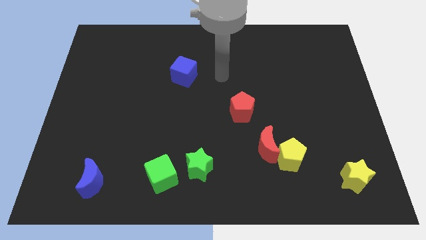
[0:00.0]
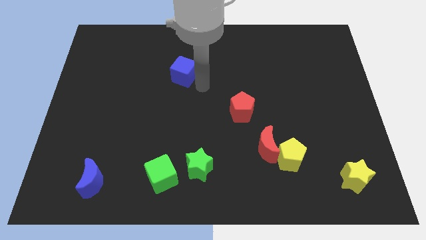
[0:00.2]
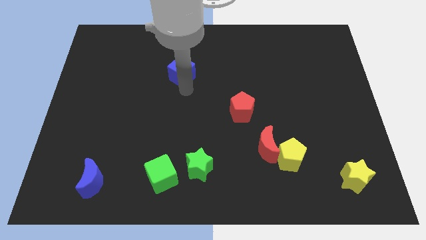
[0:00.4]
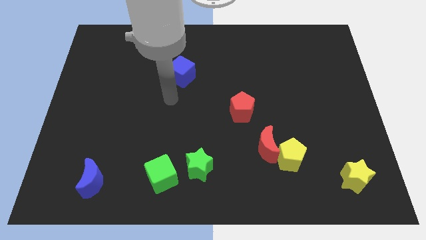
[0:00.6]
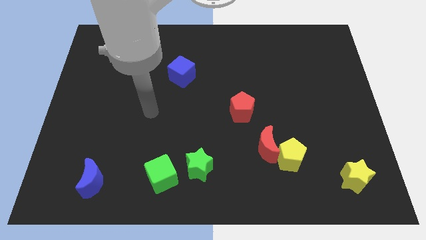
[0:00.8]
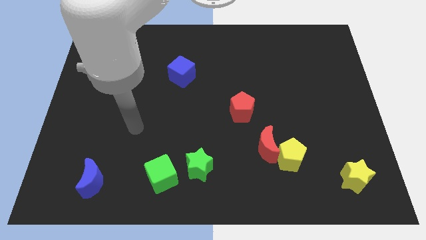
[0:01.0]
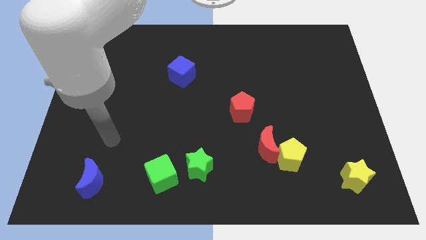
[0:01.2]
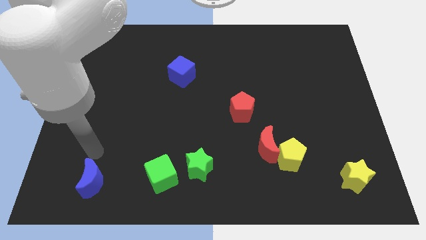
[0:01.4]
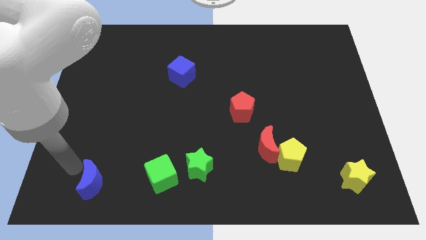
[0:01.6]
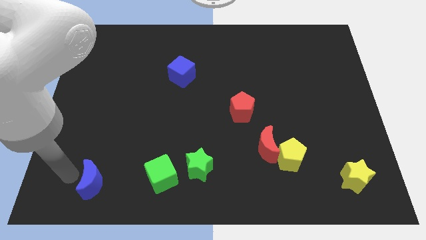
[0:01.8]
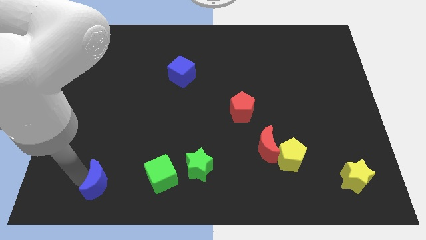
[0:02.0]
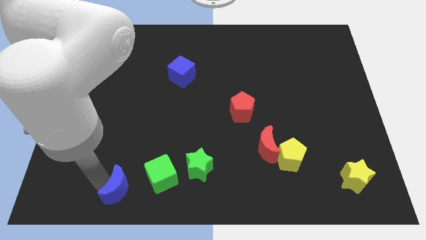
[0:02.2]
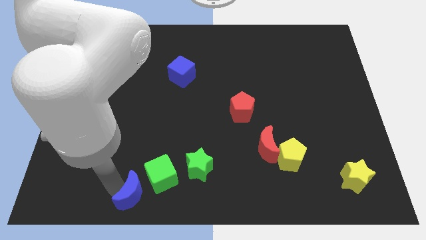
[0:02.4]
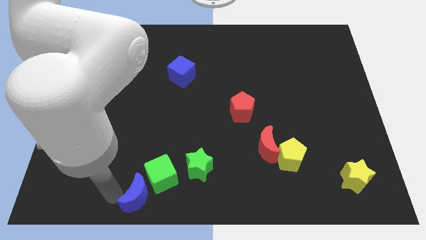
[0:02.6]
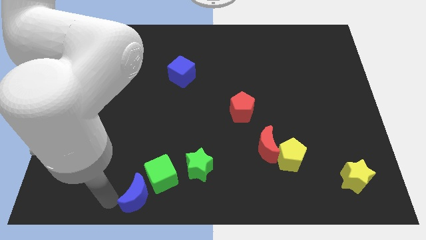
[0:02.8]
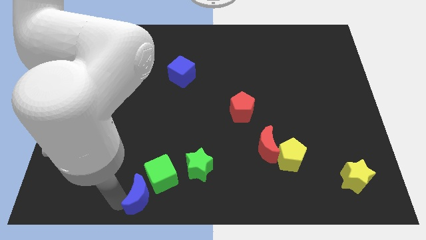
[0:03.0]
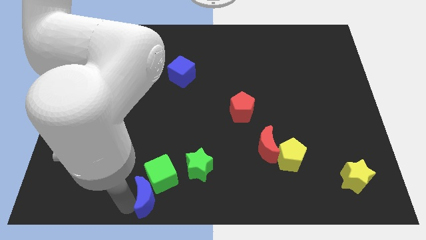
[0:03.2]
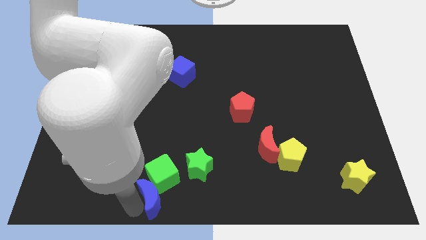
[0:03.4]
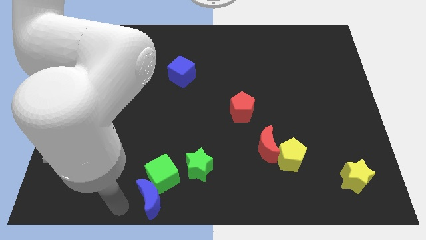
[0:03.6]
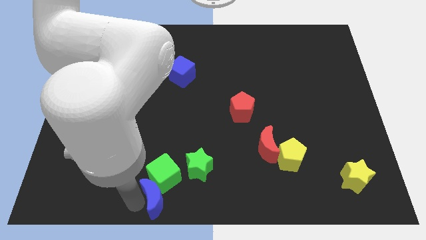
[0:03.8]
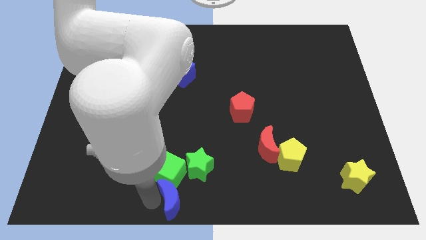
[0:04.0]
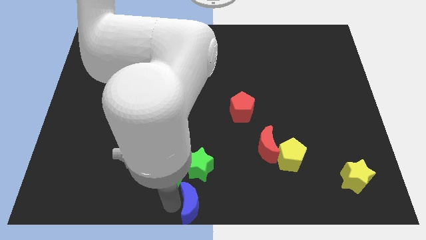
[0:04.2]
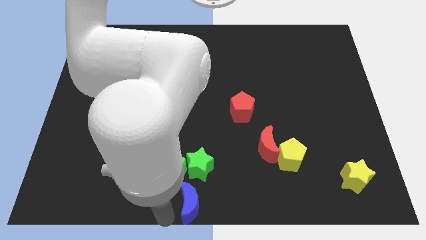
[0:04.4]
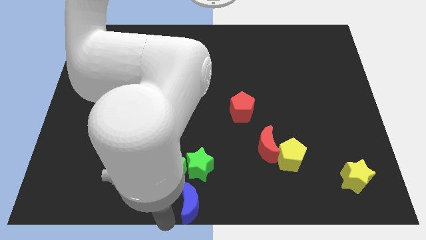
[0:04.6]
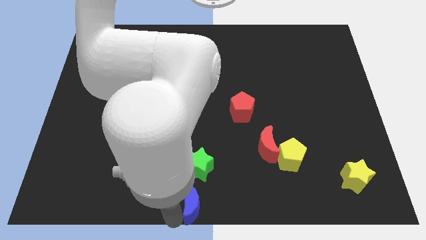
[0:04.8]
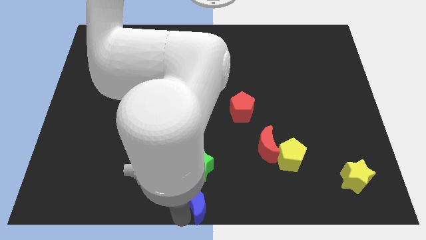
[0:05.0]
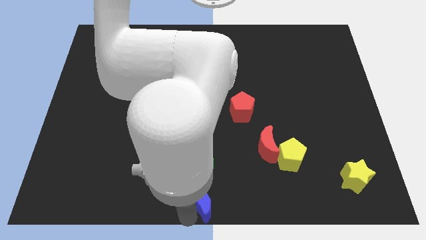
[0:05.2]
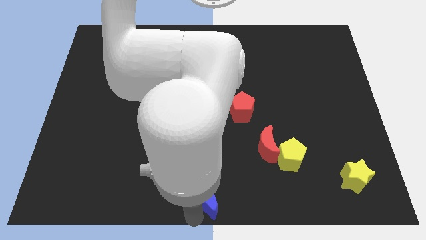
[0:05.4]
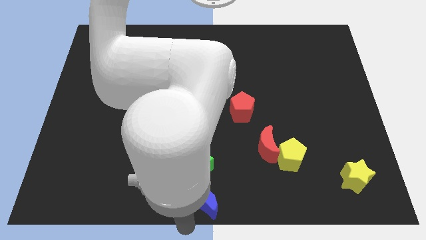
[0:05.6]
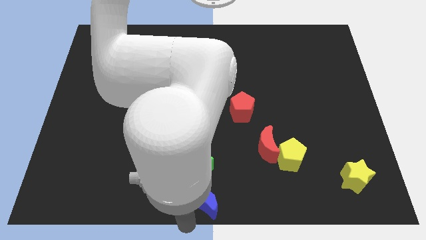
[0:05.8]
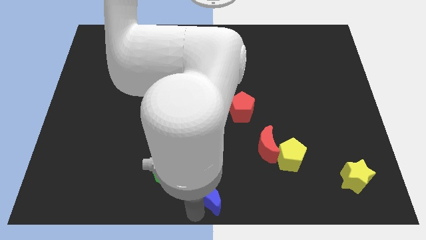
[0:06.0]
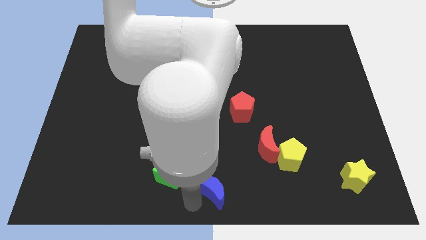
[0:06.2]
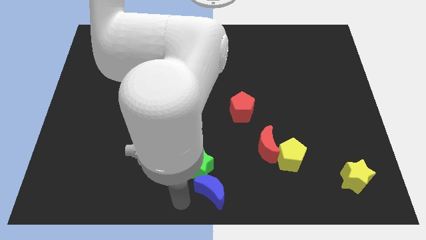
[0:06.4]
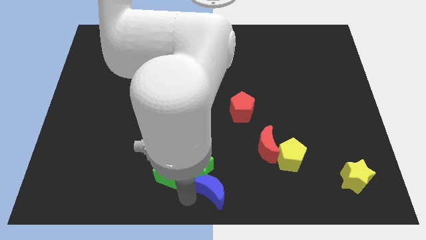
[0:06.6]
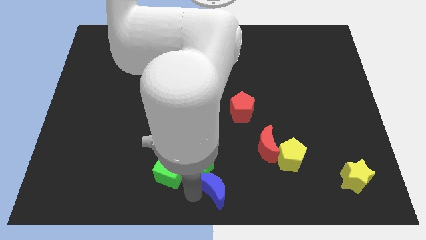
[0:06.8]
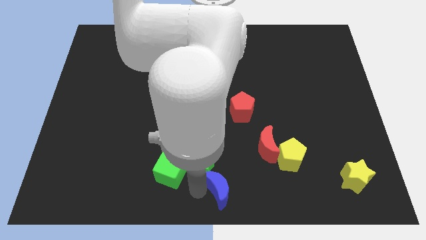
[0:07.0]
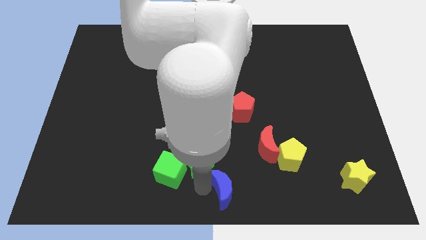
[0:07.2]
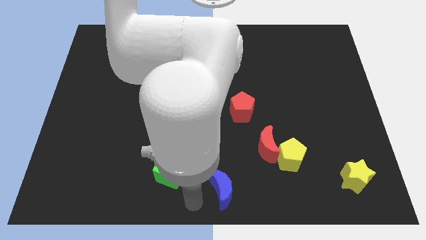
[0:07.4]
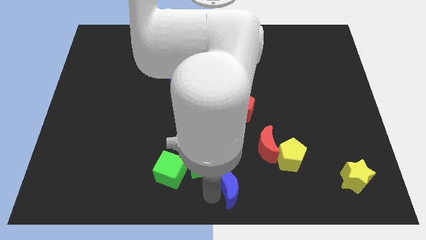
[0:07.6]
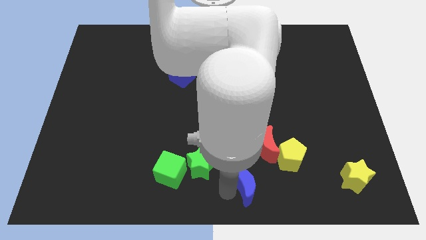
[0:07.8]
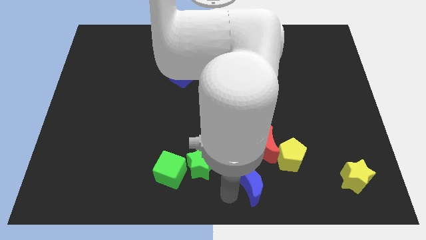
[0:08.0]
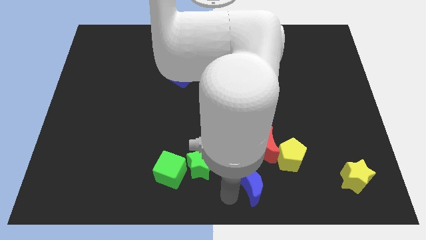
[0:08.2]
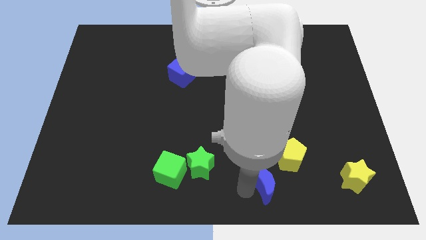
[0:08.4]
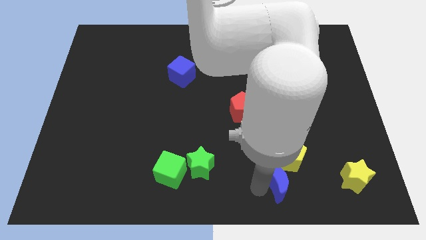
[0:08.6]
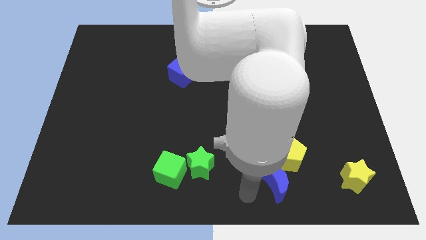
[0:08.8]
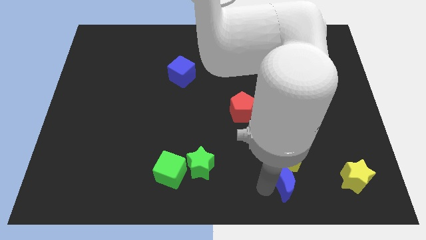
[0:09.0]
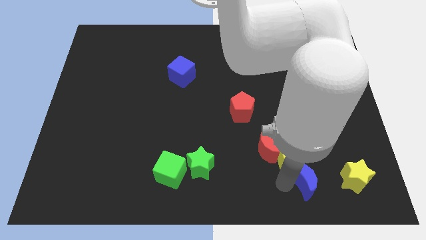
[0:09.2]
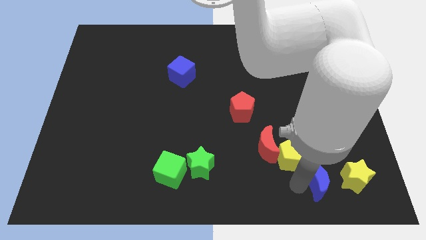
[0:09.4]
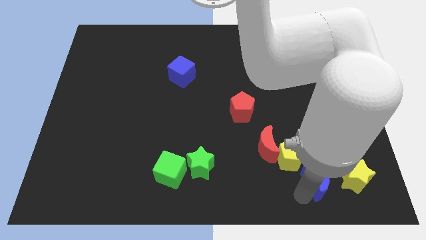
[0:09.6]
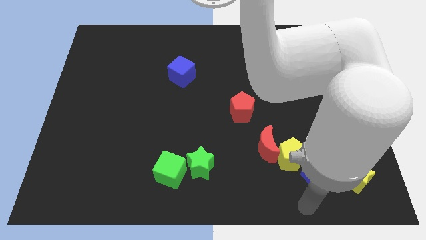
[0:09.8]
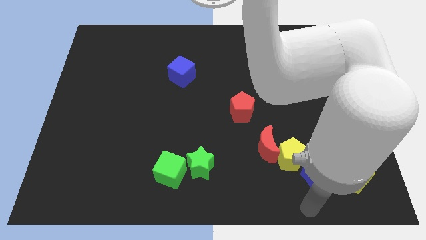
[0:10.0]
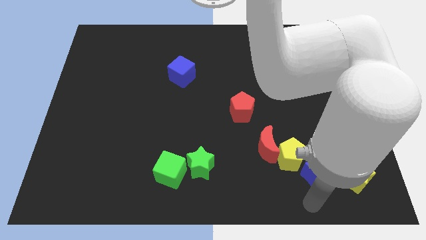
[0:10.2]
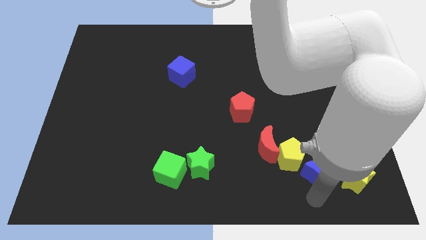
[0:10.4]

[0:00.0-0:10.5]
put the blue moon to the right of the yellow pentagon

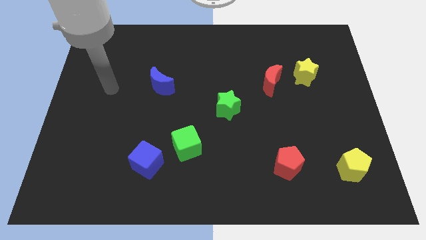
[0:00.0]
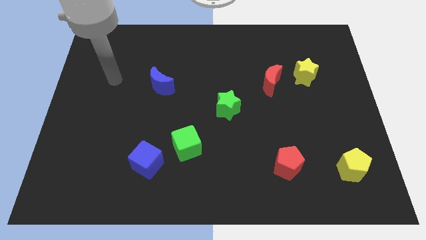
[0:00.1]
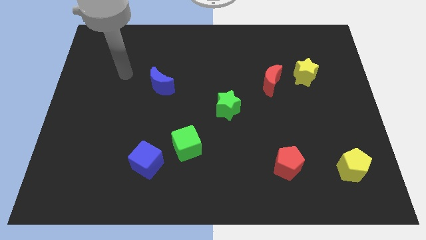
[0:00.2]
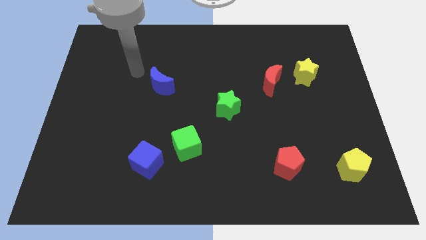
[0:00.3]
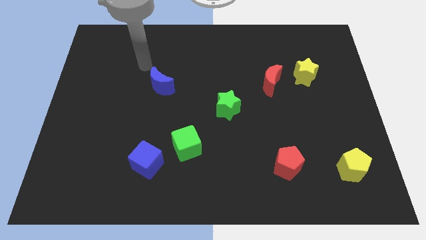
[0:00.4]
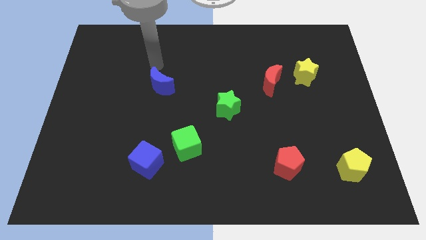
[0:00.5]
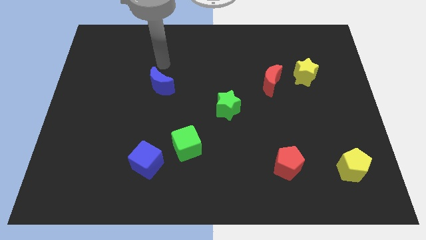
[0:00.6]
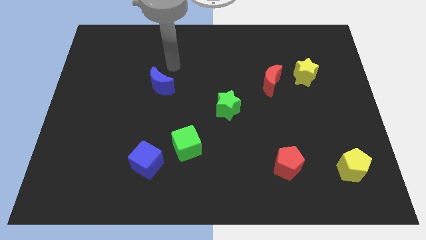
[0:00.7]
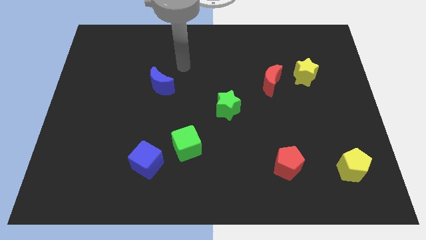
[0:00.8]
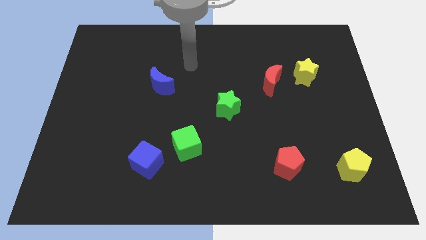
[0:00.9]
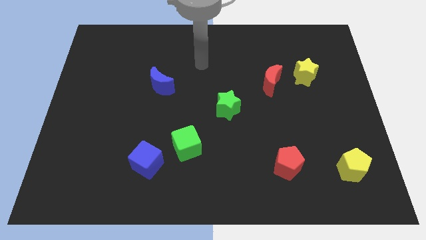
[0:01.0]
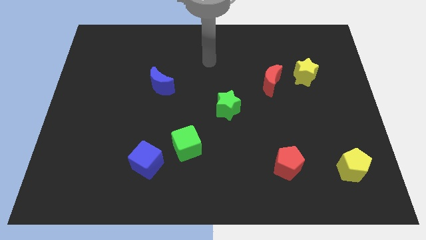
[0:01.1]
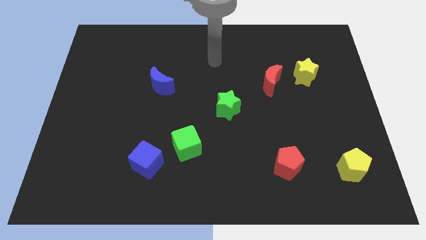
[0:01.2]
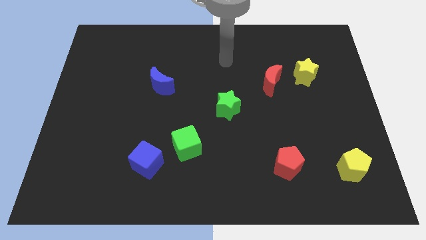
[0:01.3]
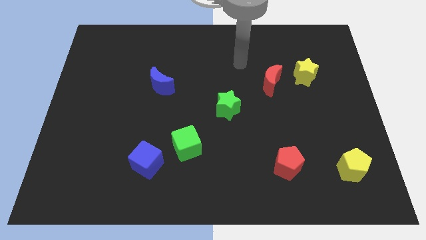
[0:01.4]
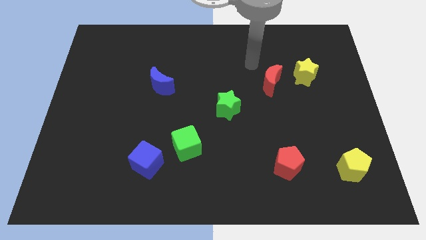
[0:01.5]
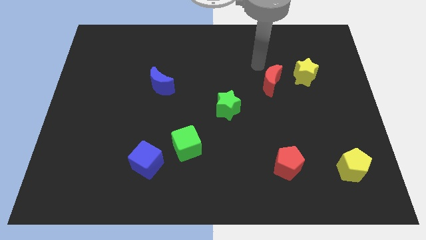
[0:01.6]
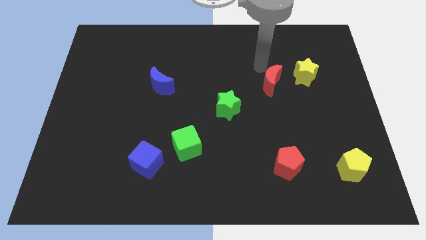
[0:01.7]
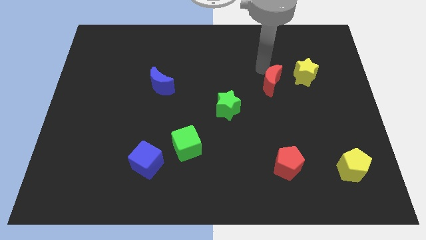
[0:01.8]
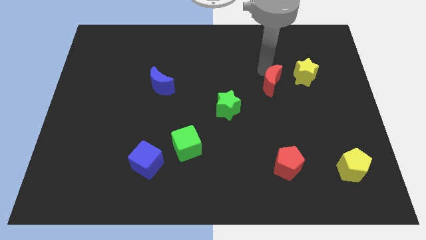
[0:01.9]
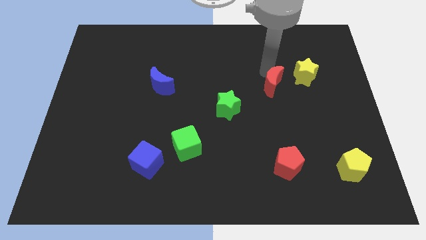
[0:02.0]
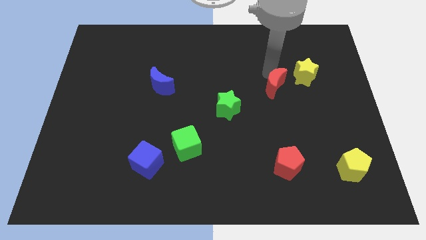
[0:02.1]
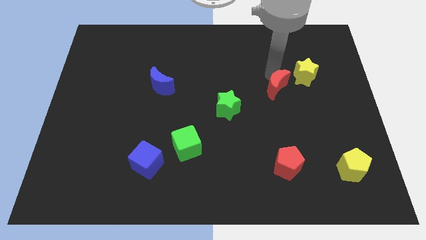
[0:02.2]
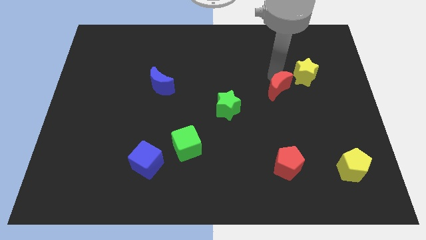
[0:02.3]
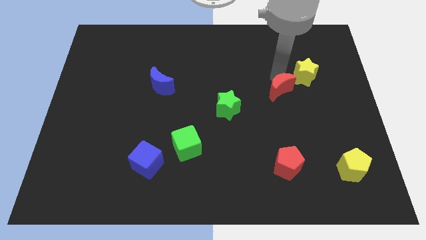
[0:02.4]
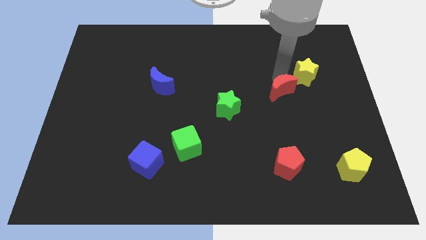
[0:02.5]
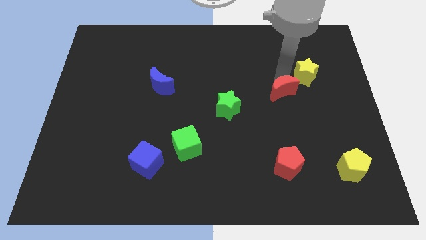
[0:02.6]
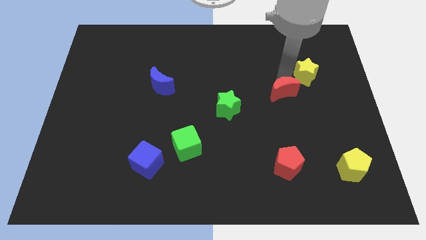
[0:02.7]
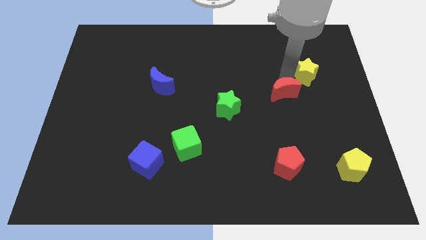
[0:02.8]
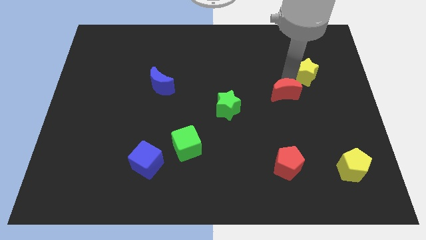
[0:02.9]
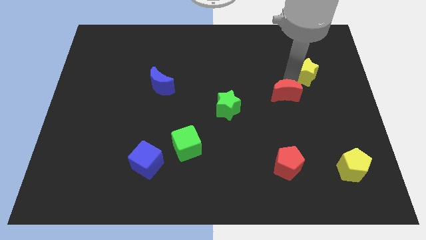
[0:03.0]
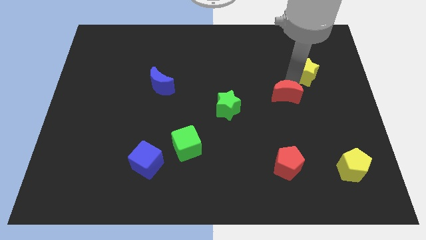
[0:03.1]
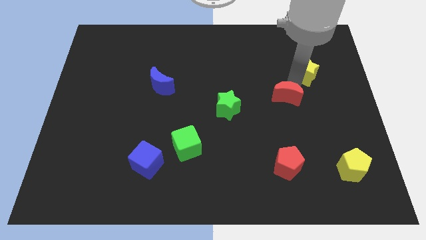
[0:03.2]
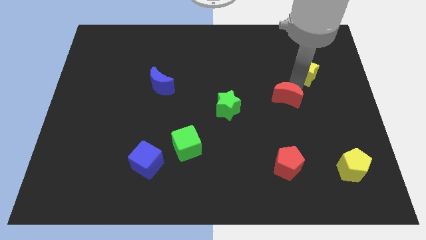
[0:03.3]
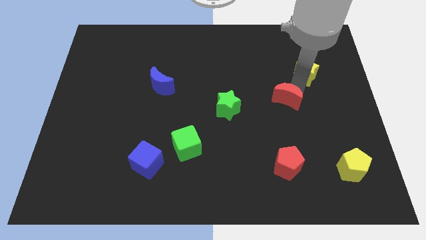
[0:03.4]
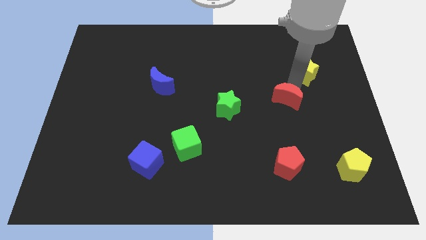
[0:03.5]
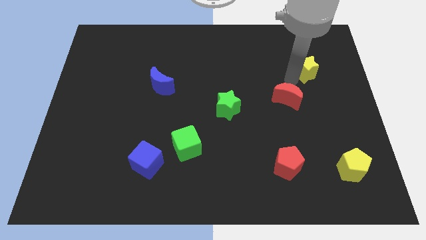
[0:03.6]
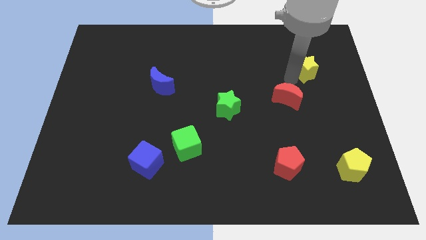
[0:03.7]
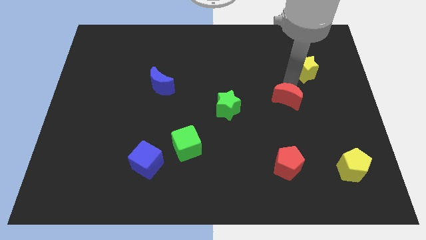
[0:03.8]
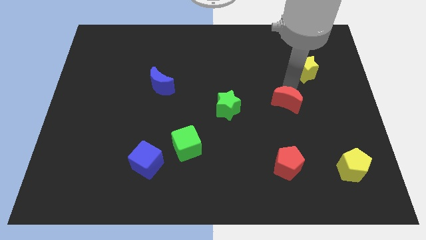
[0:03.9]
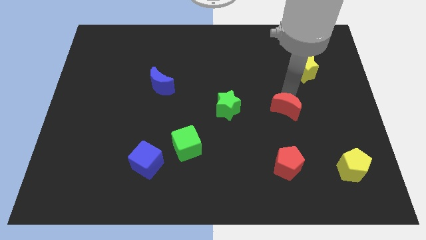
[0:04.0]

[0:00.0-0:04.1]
move the red moon to the top side of the red pentagon
